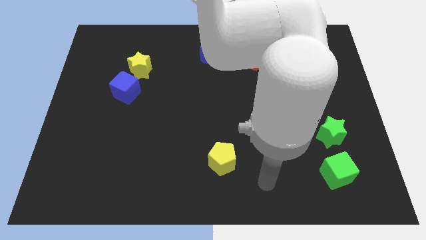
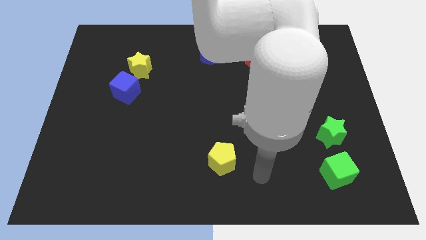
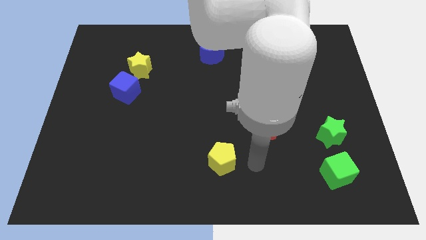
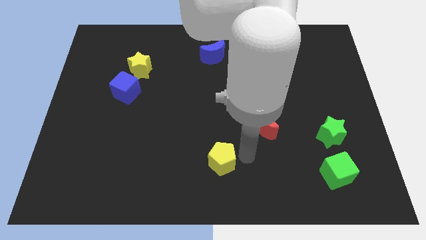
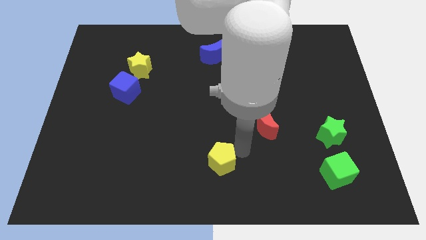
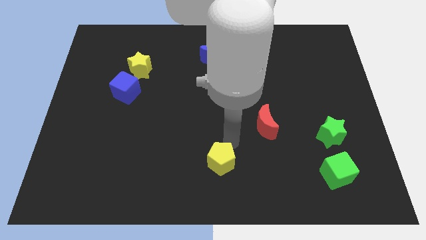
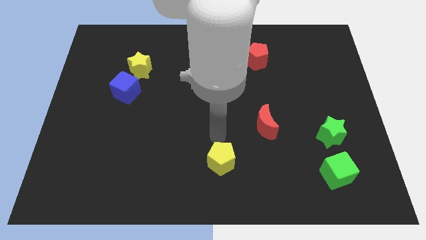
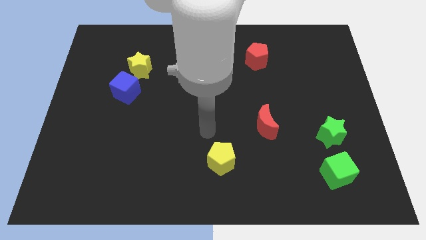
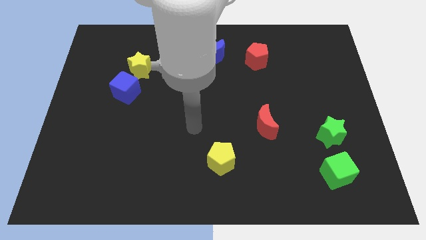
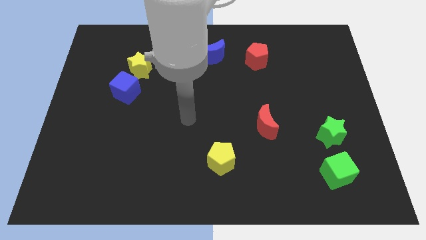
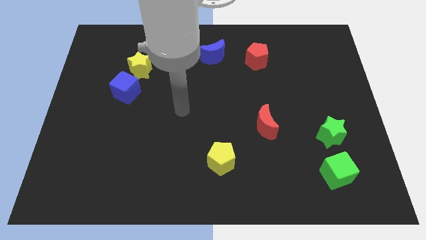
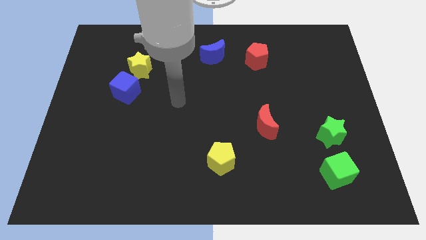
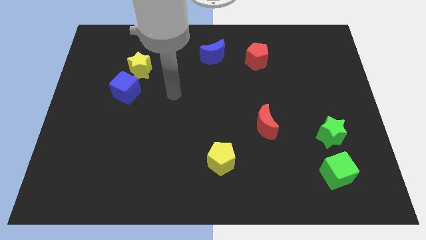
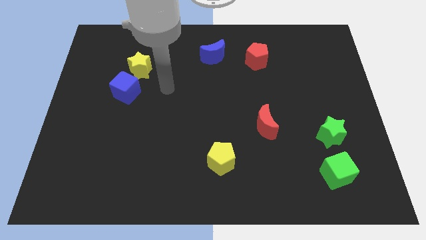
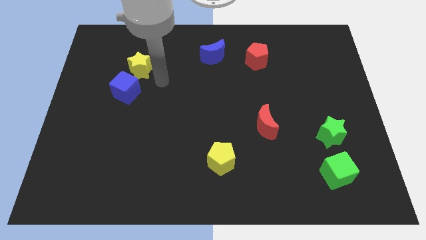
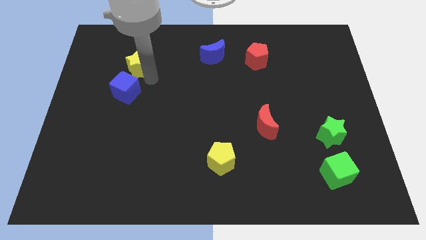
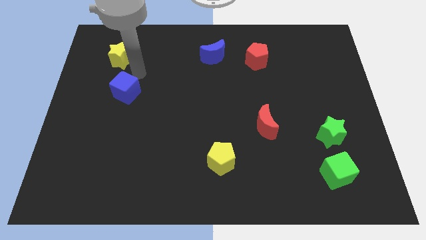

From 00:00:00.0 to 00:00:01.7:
separate the blue cube from the yellow star

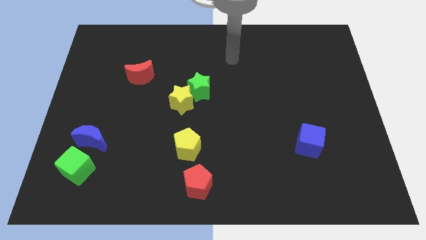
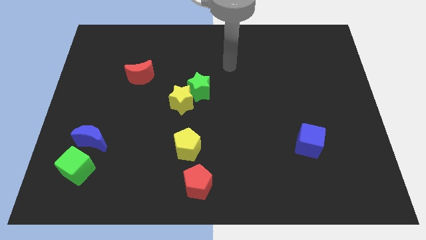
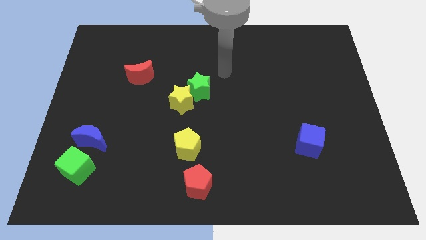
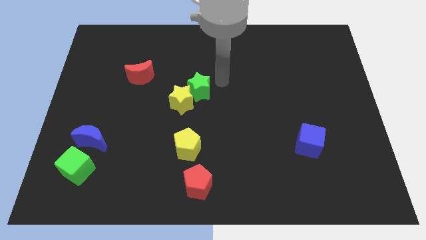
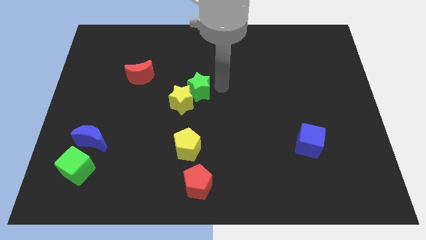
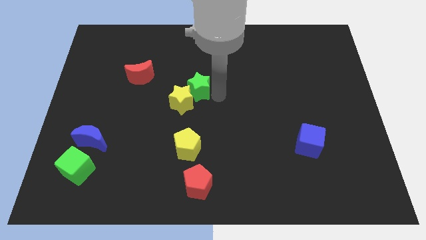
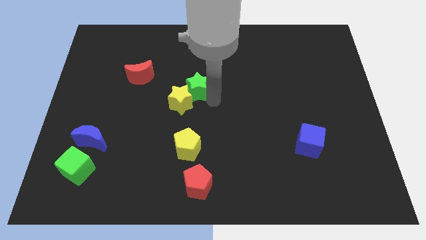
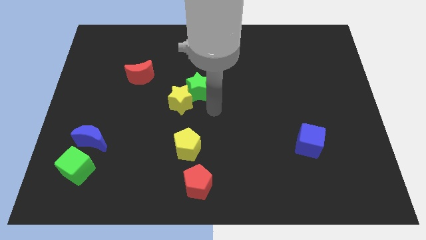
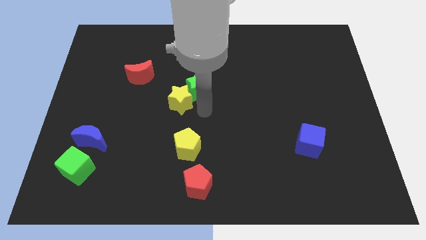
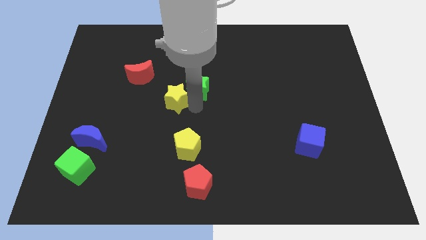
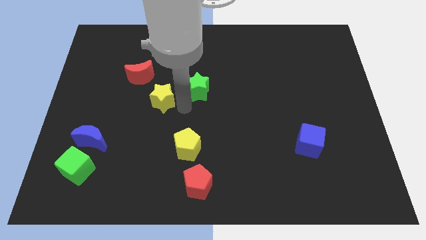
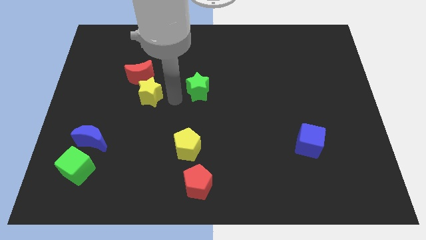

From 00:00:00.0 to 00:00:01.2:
separate the green star from the yellow star

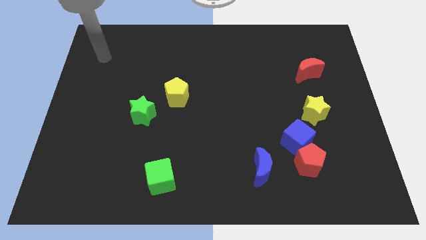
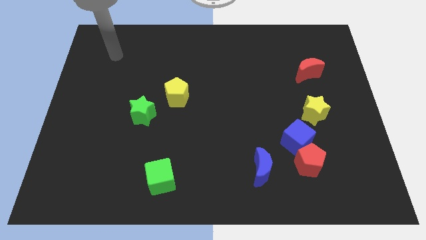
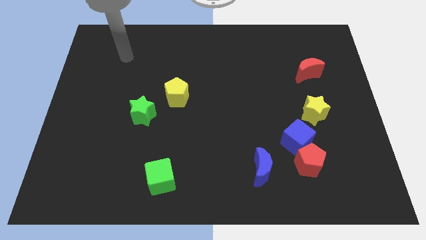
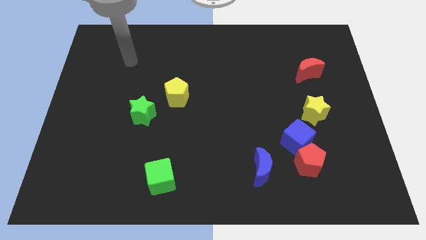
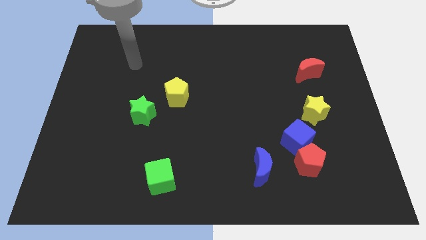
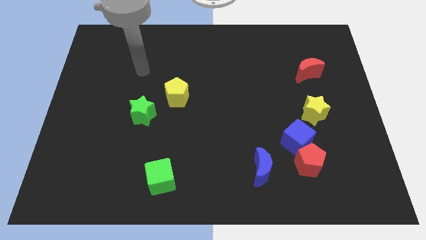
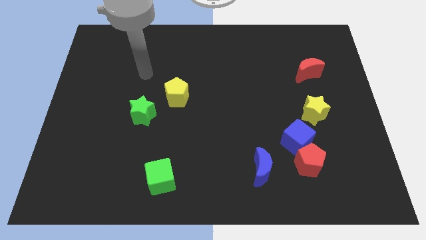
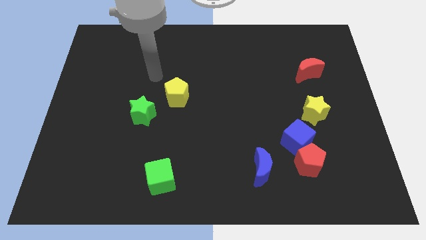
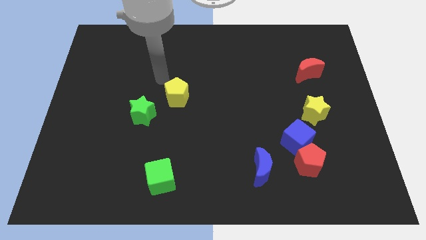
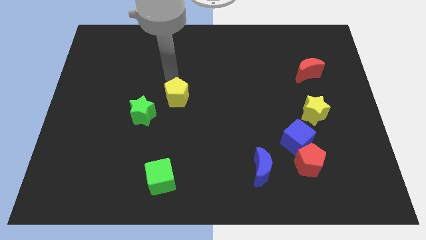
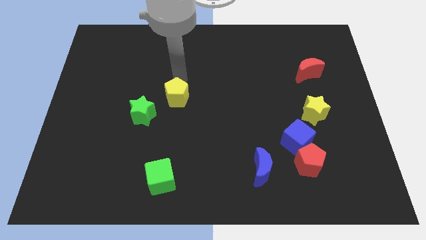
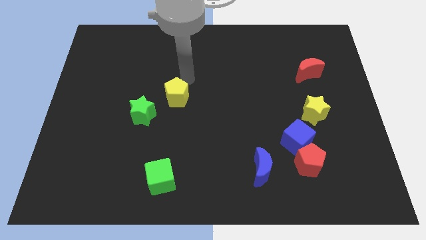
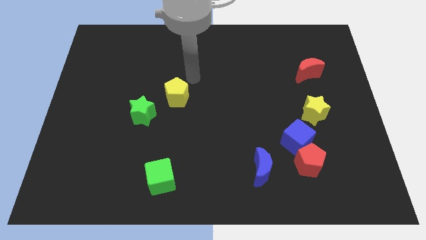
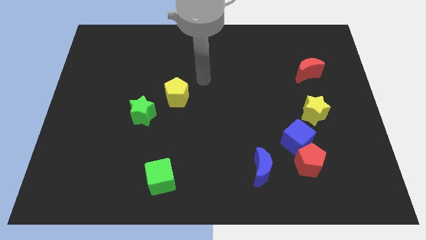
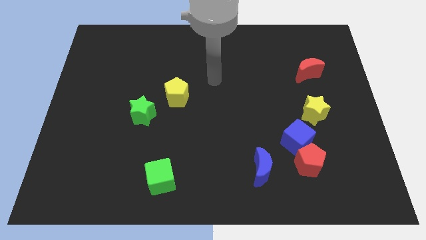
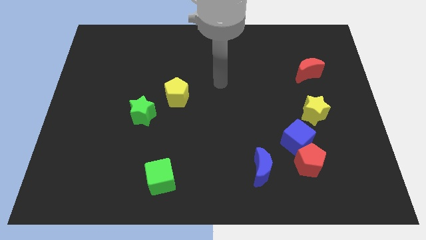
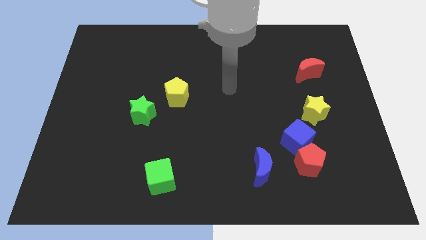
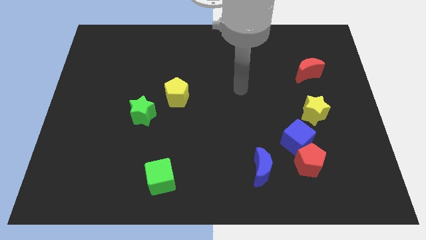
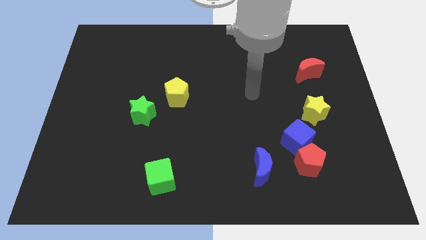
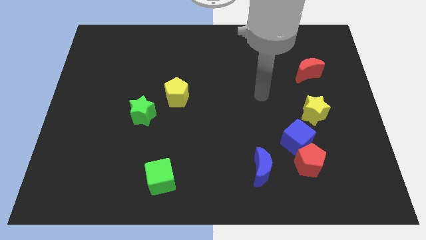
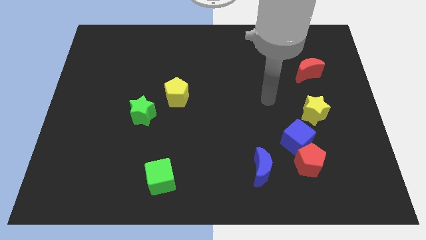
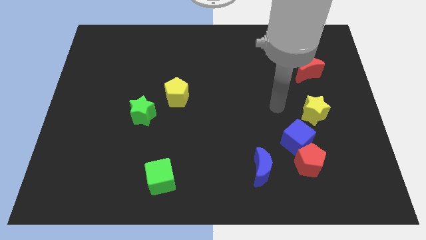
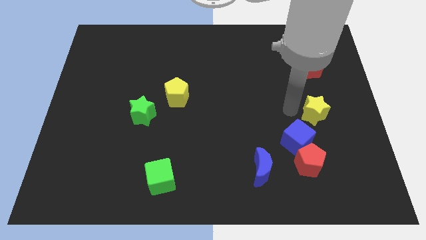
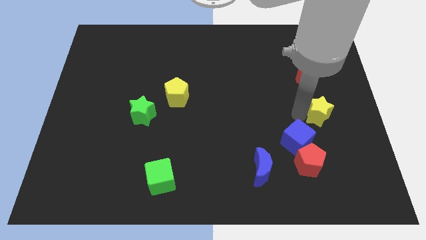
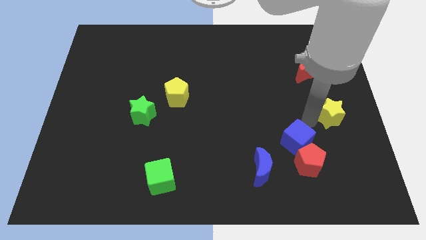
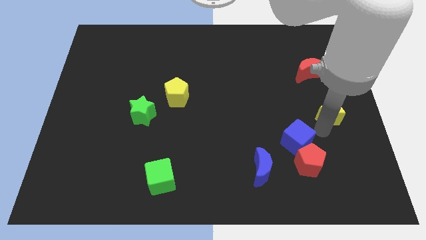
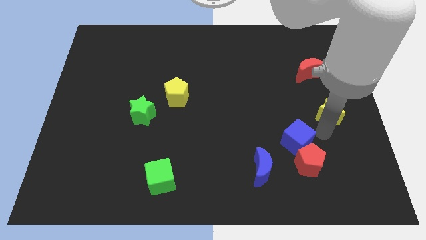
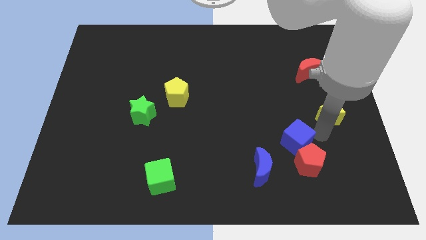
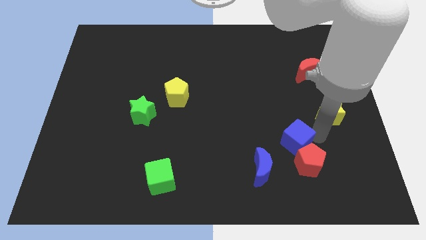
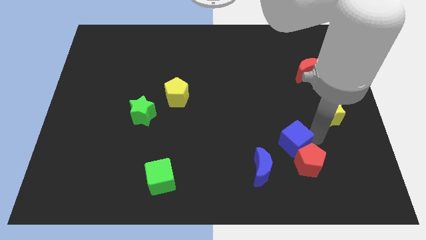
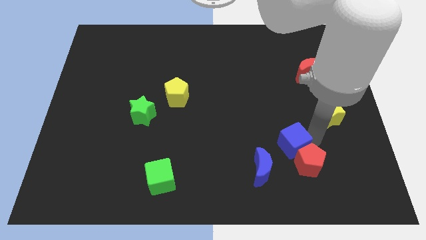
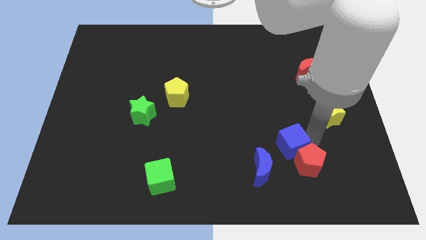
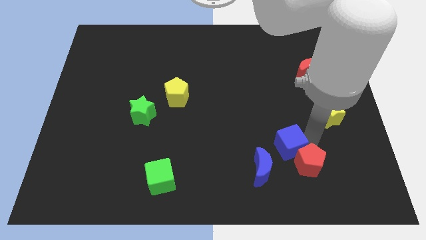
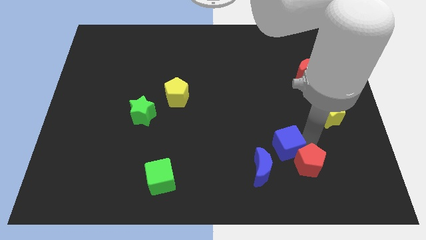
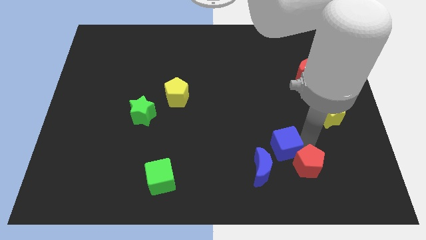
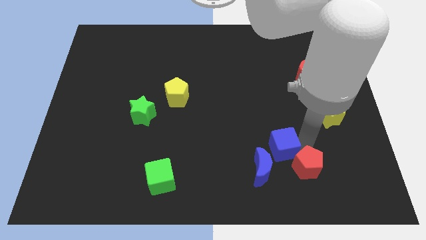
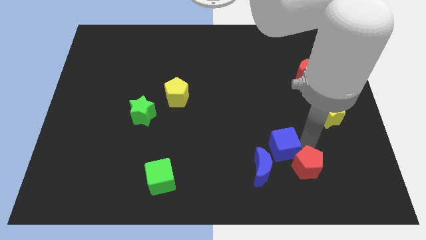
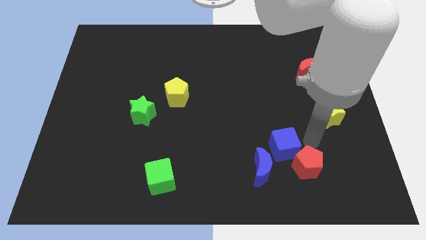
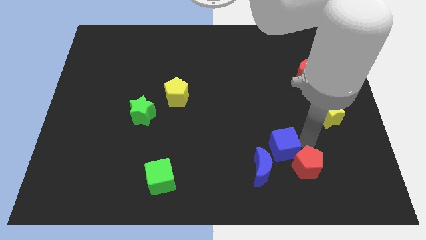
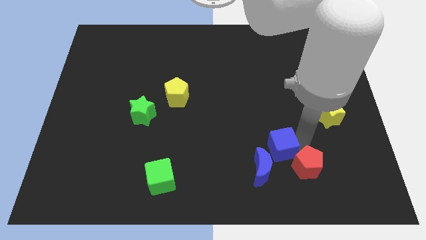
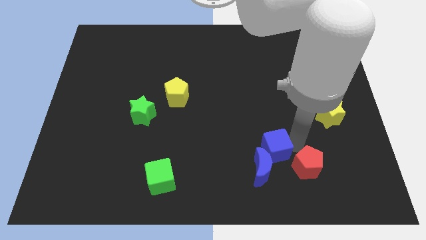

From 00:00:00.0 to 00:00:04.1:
pull the blue cube apart from the red pentagon and yellow star

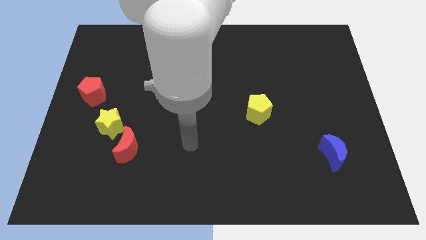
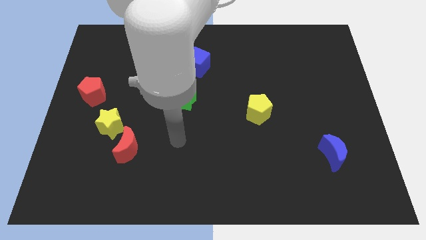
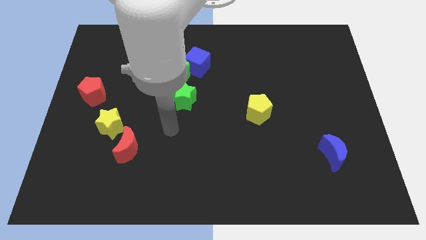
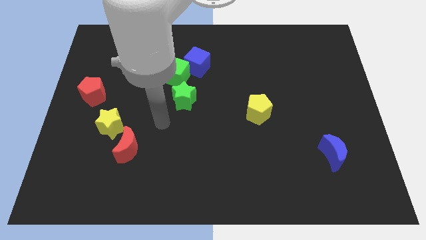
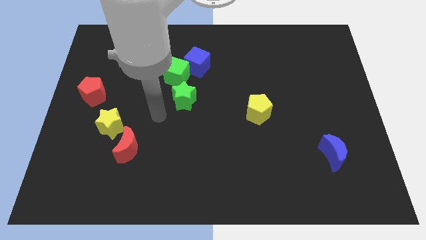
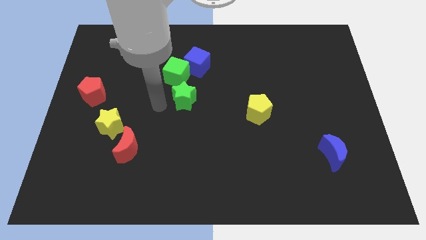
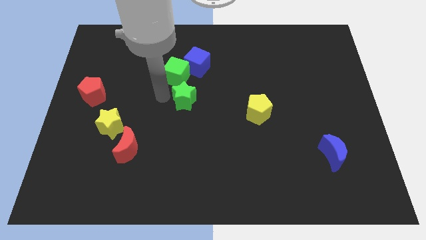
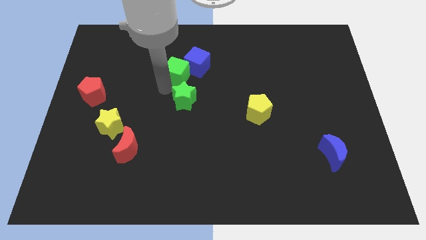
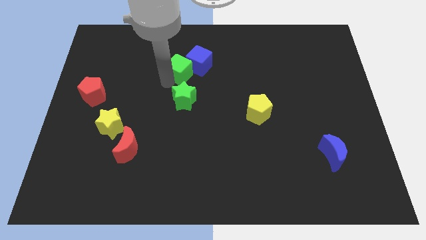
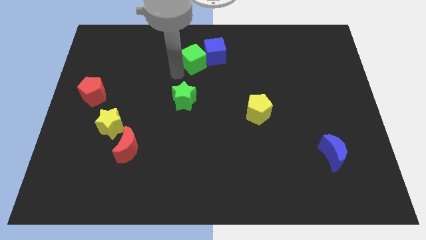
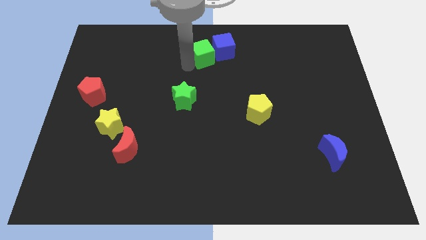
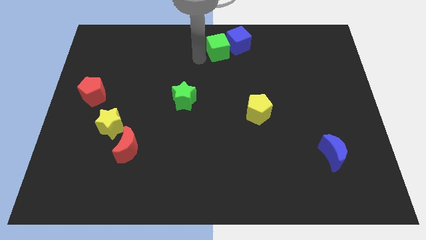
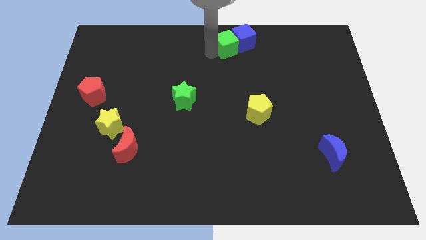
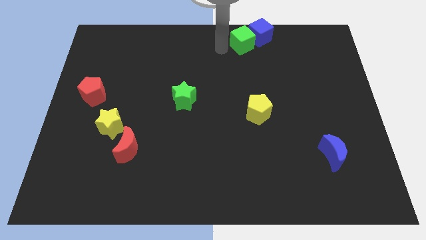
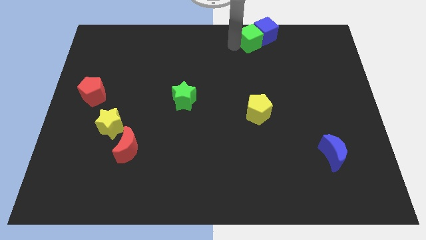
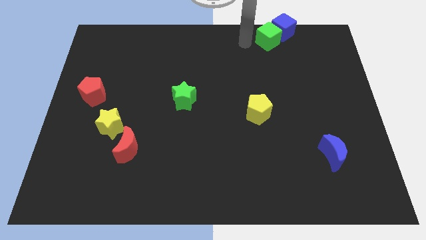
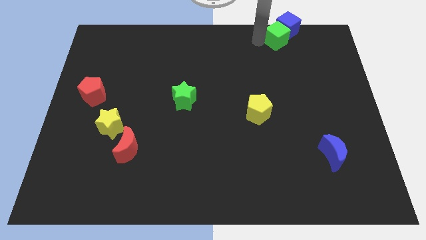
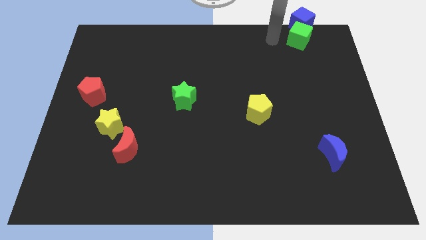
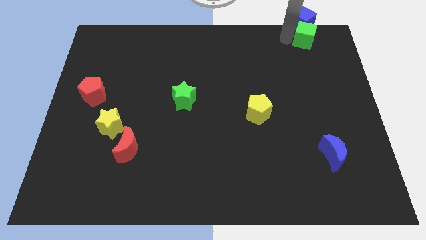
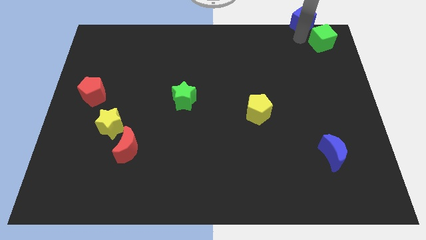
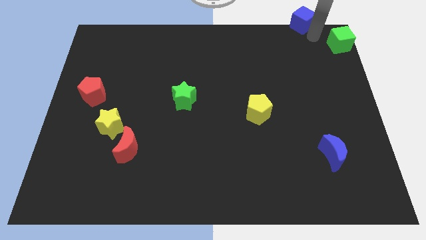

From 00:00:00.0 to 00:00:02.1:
move the blue cube away from the green cube

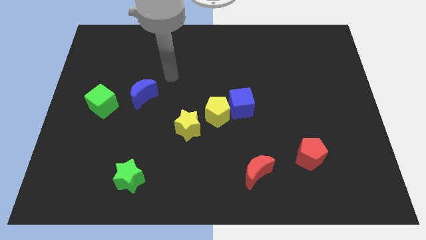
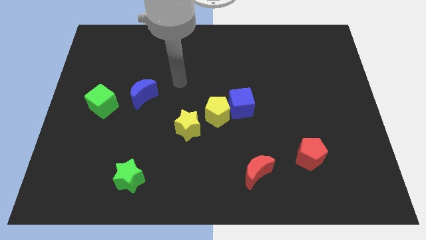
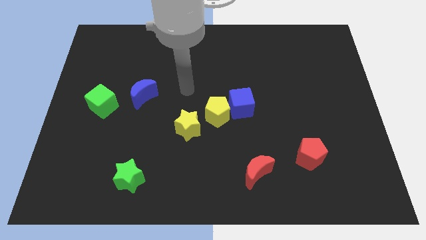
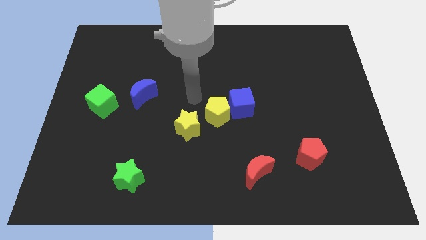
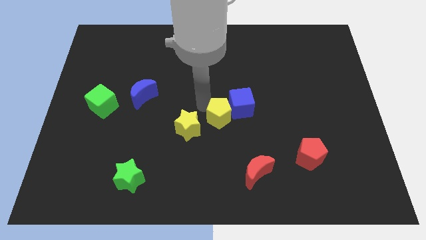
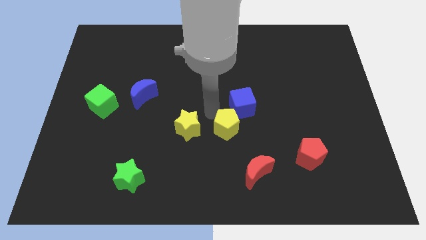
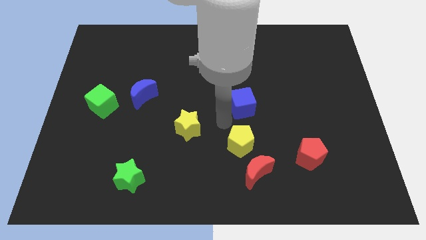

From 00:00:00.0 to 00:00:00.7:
pull the blue cube apart from the yellow pentagon
